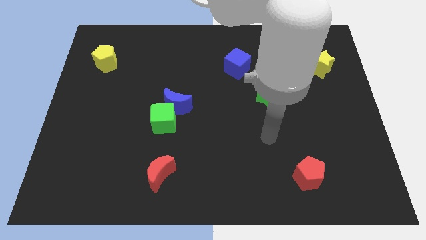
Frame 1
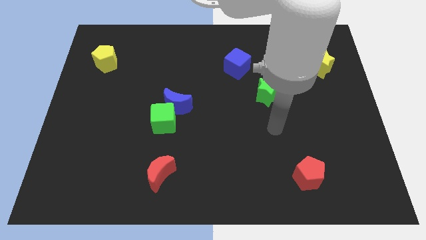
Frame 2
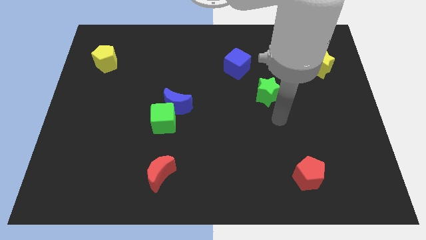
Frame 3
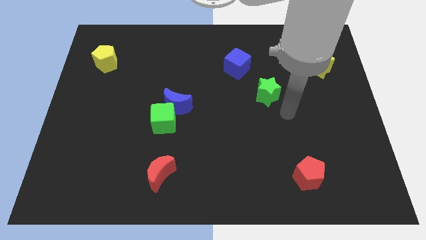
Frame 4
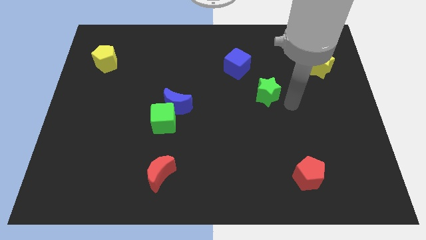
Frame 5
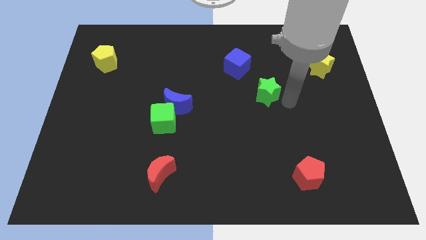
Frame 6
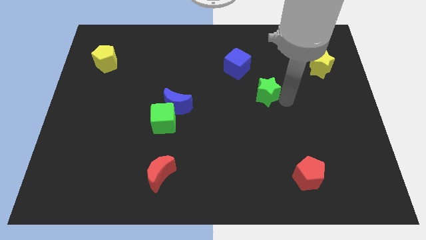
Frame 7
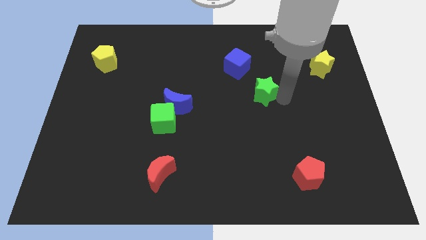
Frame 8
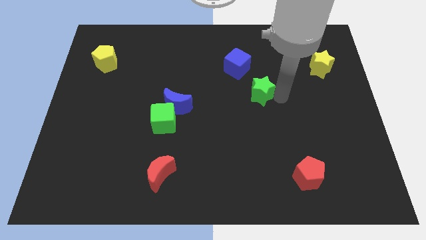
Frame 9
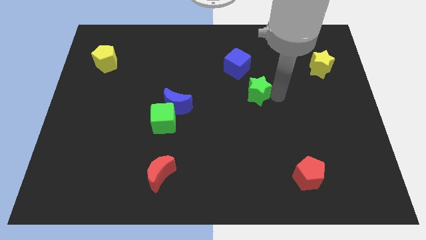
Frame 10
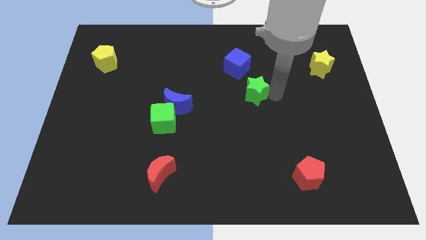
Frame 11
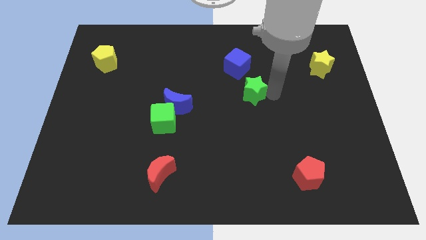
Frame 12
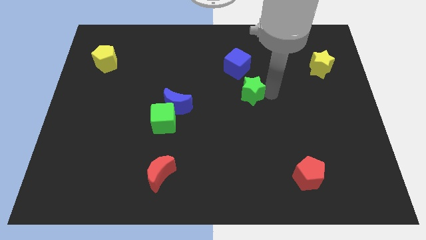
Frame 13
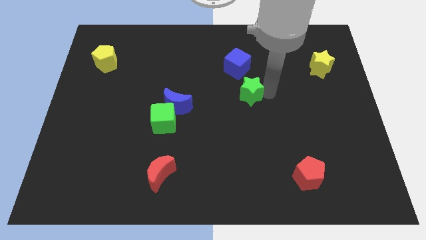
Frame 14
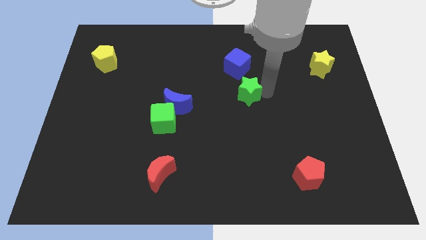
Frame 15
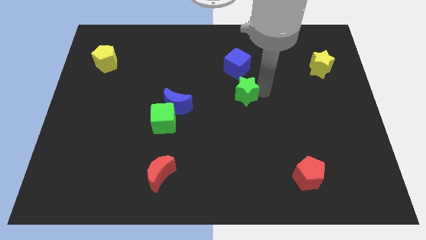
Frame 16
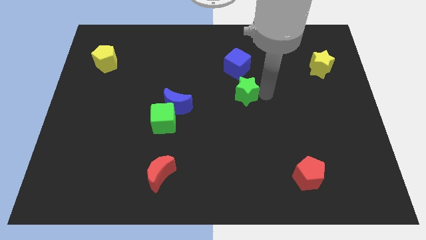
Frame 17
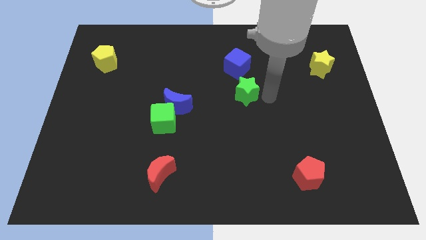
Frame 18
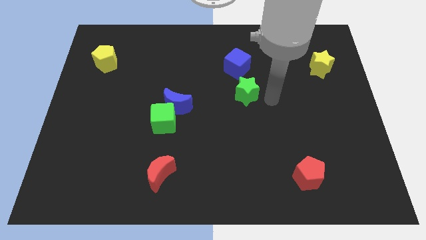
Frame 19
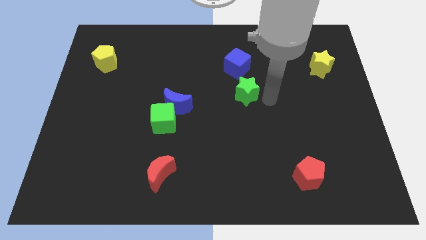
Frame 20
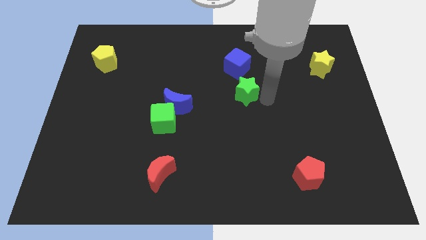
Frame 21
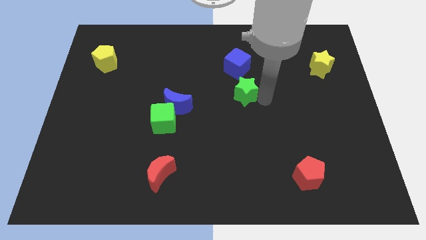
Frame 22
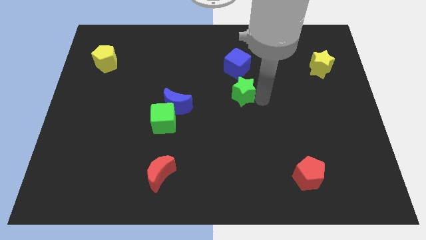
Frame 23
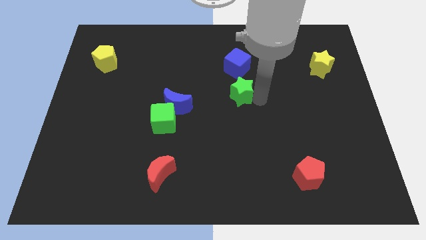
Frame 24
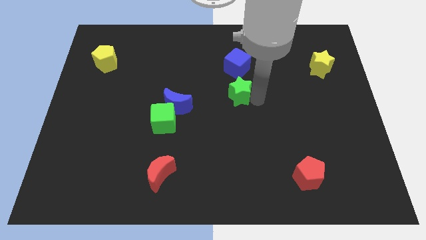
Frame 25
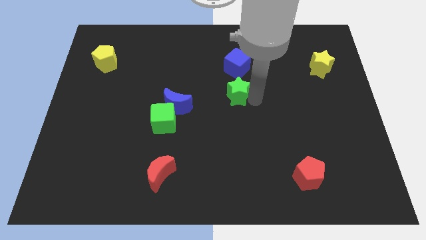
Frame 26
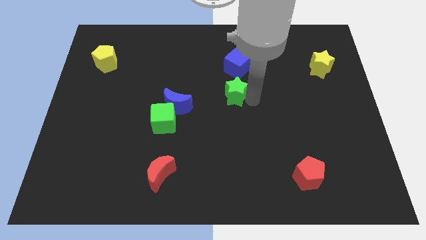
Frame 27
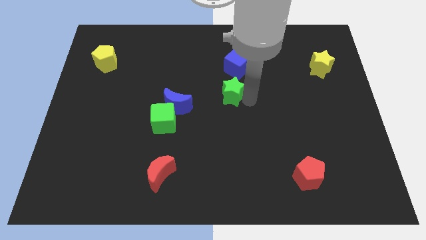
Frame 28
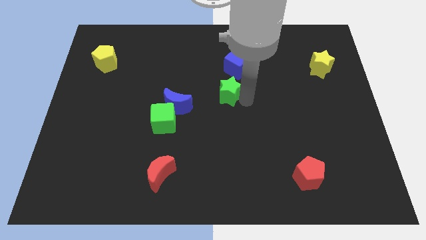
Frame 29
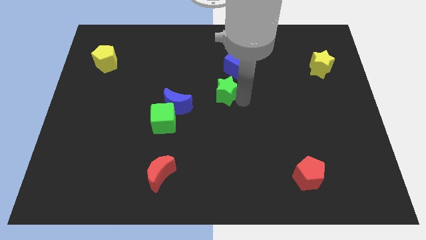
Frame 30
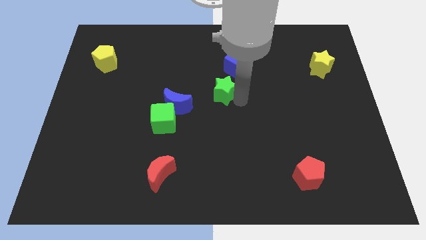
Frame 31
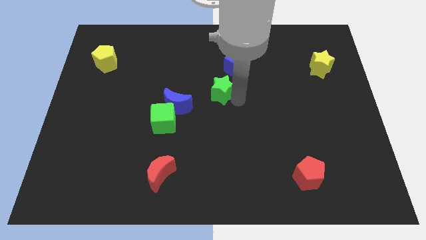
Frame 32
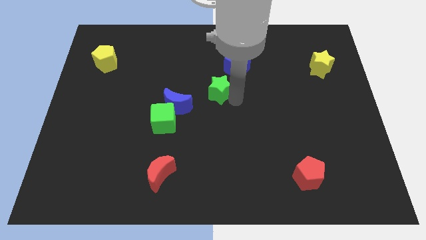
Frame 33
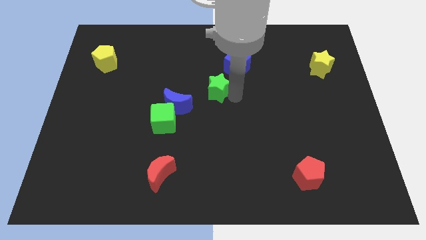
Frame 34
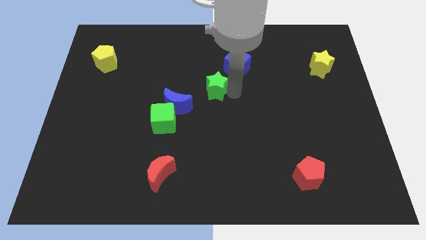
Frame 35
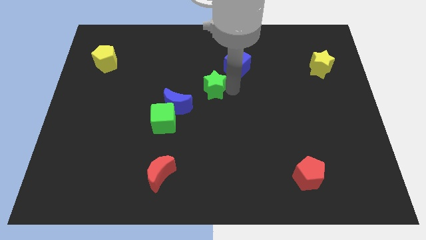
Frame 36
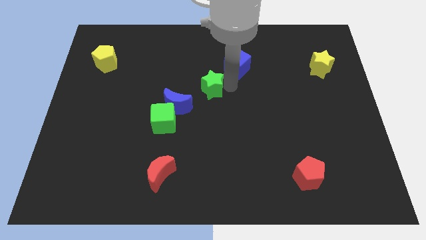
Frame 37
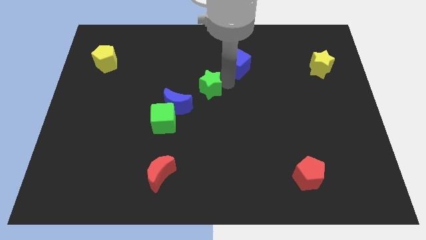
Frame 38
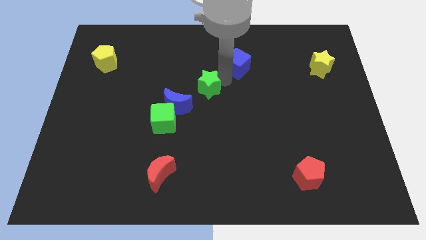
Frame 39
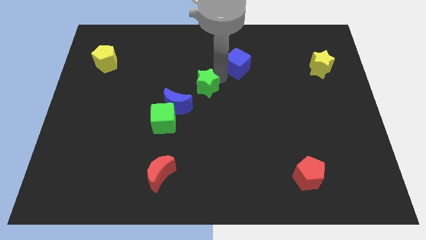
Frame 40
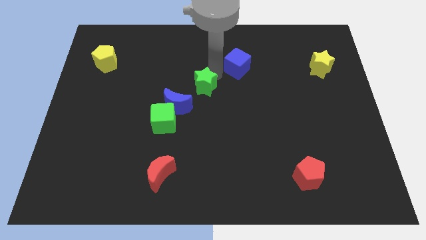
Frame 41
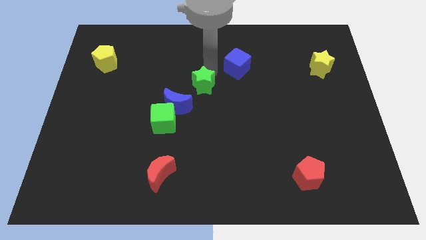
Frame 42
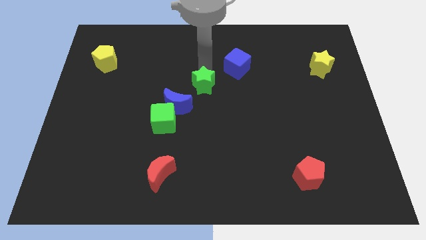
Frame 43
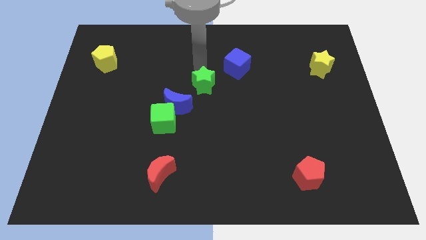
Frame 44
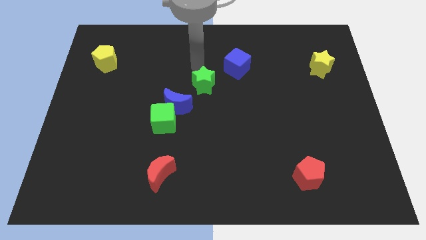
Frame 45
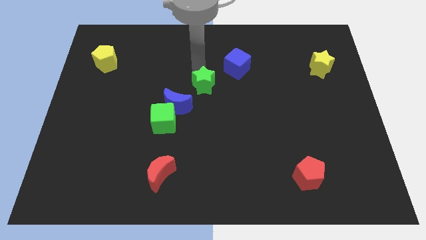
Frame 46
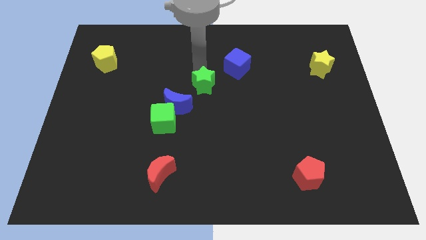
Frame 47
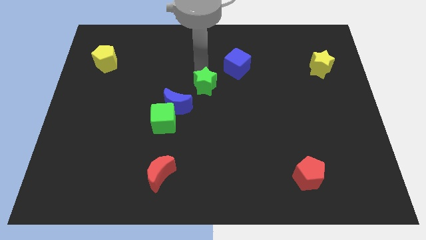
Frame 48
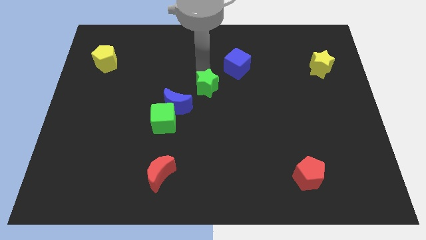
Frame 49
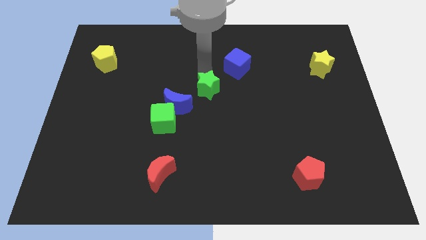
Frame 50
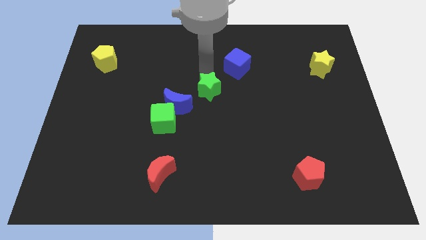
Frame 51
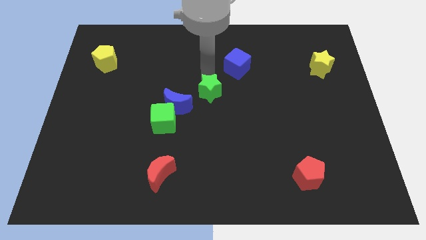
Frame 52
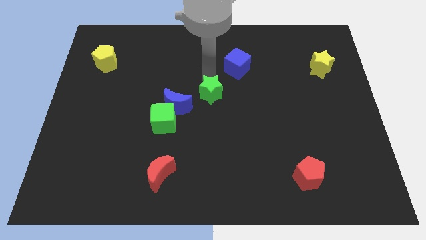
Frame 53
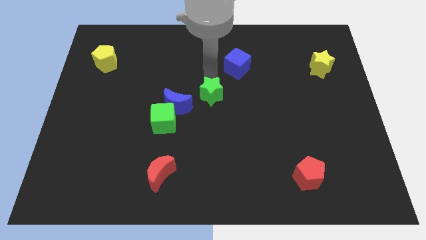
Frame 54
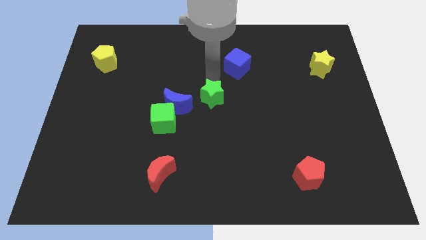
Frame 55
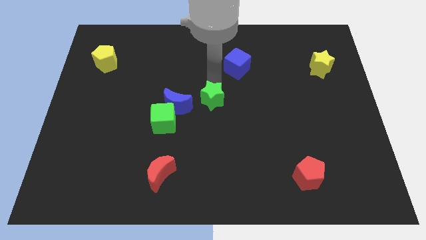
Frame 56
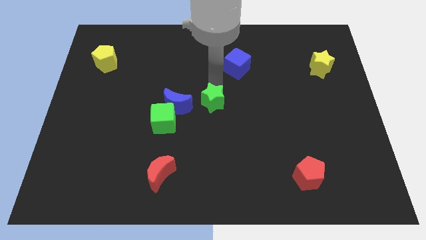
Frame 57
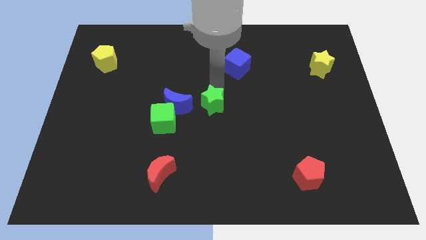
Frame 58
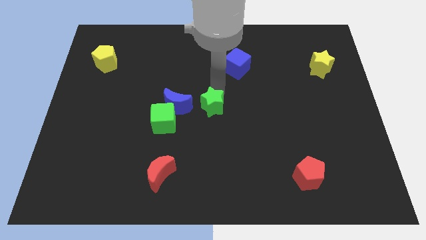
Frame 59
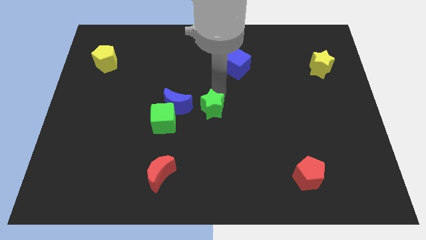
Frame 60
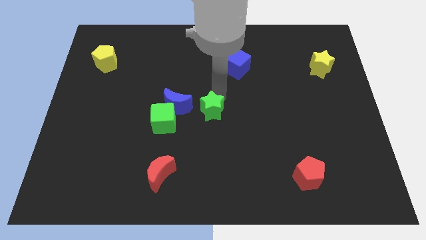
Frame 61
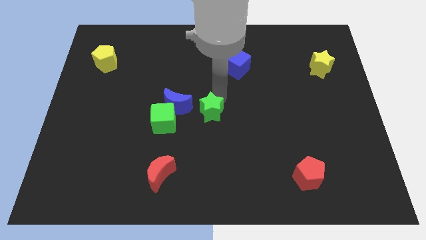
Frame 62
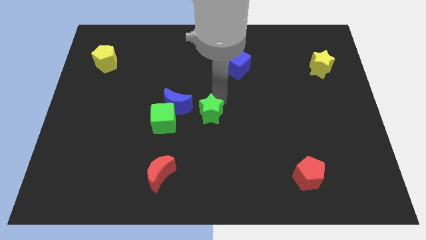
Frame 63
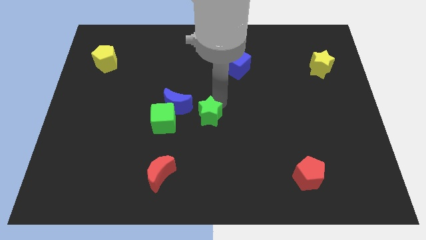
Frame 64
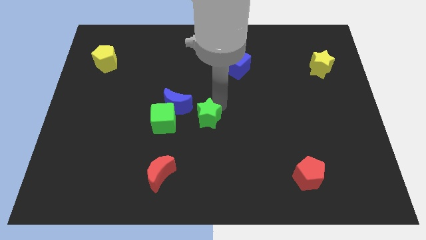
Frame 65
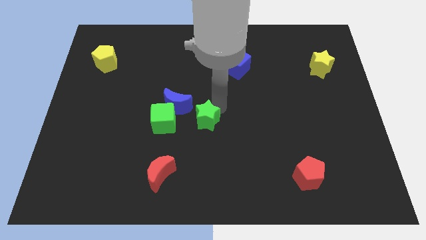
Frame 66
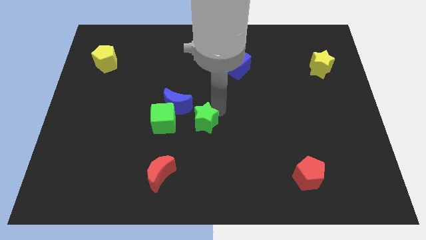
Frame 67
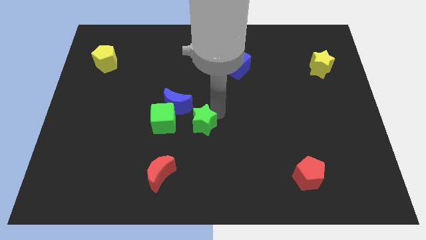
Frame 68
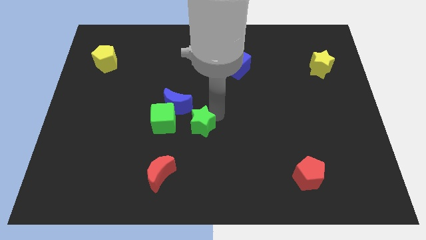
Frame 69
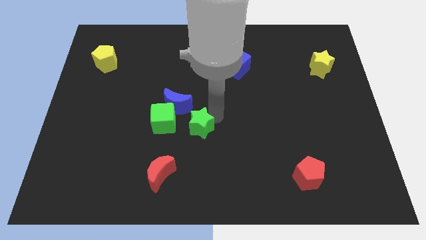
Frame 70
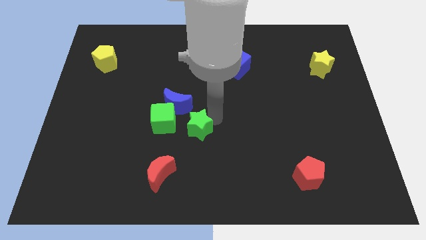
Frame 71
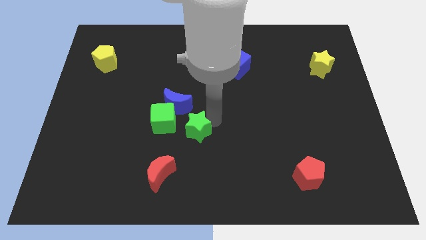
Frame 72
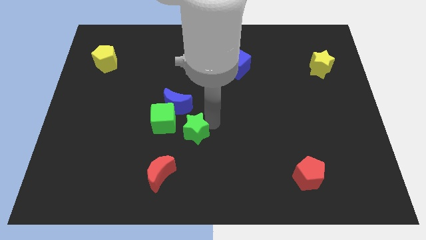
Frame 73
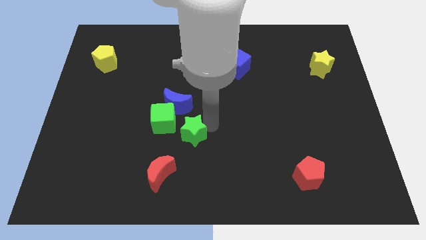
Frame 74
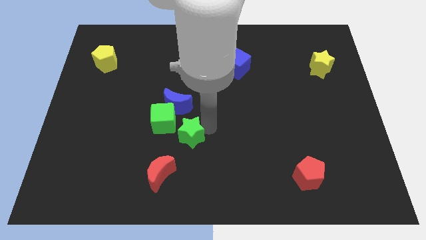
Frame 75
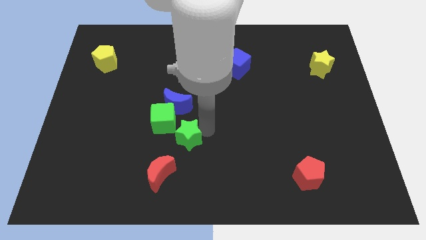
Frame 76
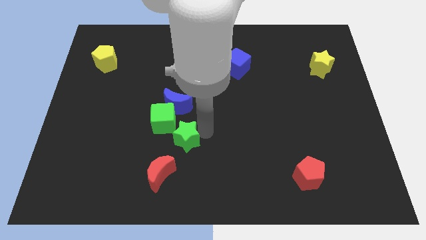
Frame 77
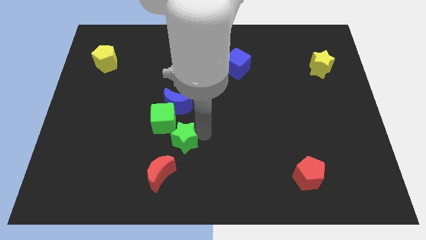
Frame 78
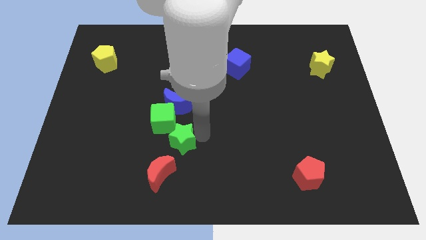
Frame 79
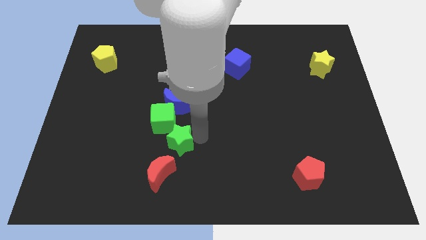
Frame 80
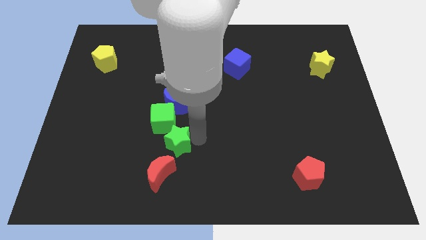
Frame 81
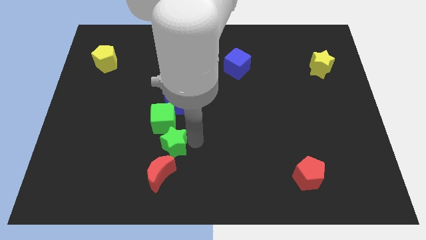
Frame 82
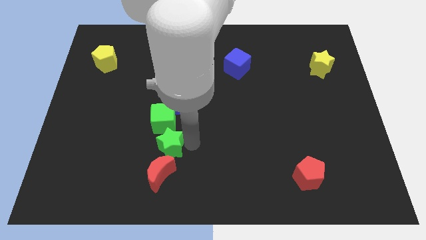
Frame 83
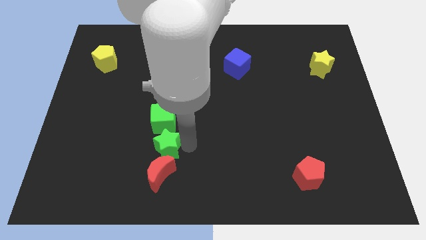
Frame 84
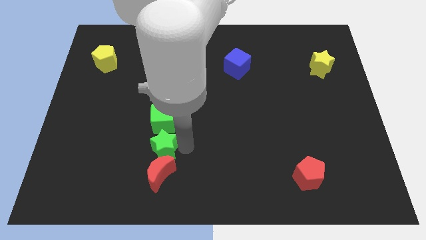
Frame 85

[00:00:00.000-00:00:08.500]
slide the green star to the top left of the red moon
